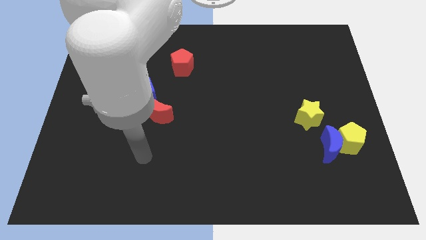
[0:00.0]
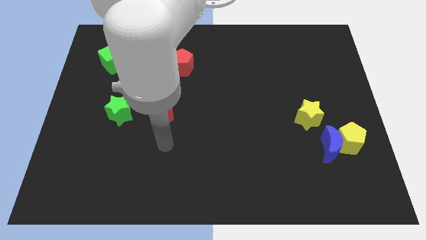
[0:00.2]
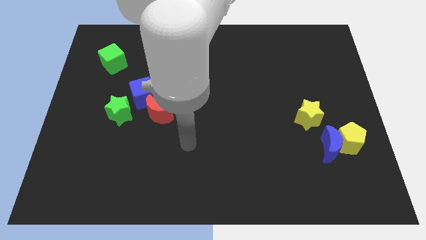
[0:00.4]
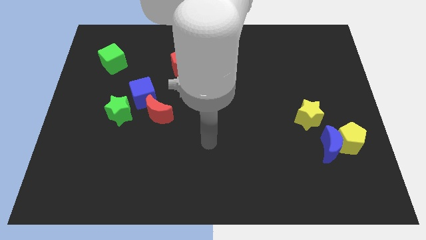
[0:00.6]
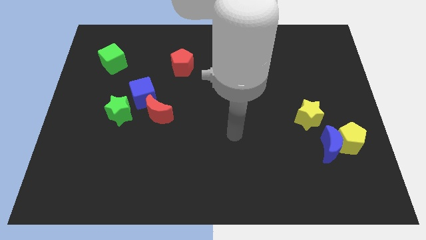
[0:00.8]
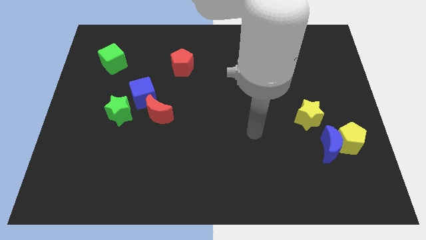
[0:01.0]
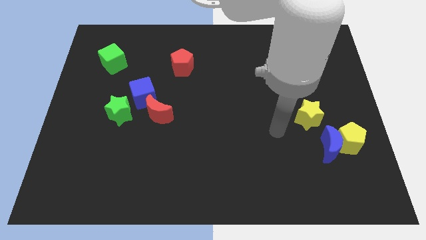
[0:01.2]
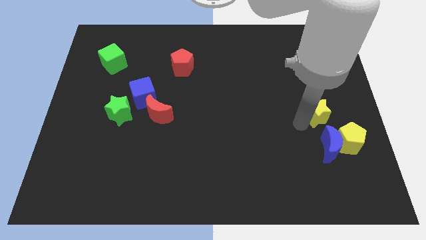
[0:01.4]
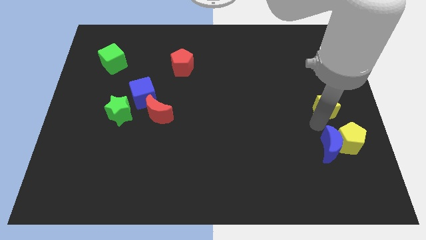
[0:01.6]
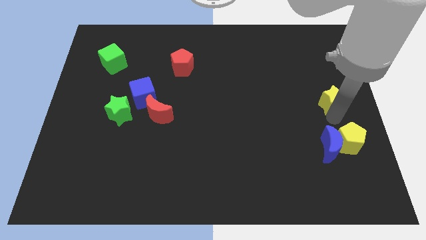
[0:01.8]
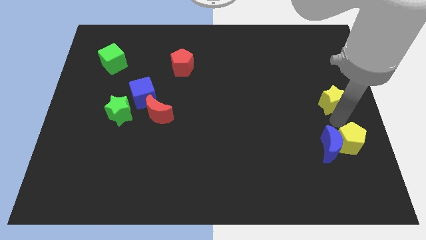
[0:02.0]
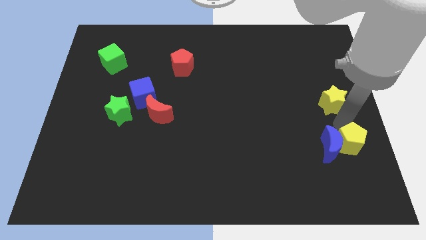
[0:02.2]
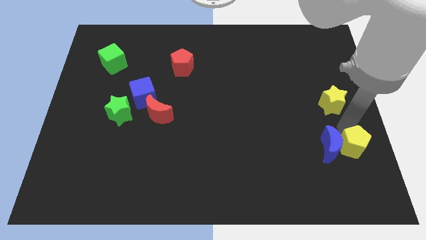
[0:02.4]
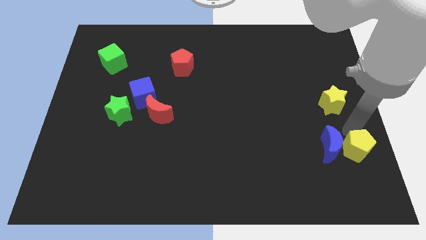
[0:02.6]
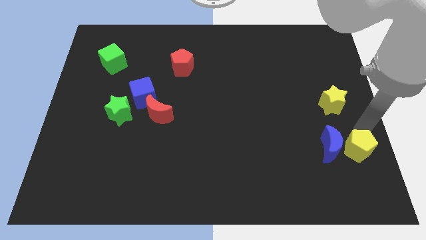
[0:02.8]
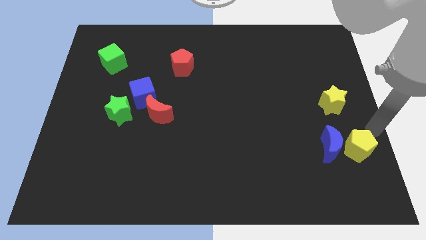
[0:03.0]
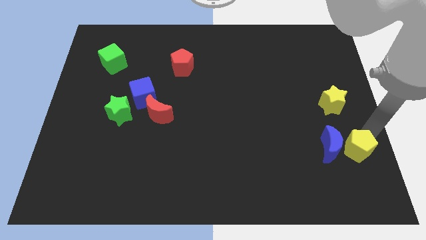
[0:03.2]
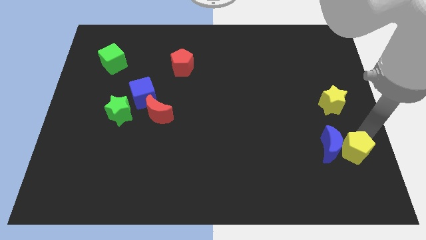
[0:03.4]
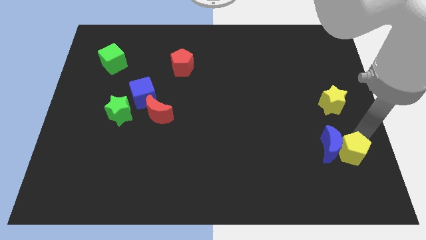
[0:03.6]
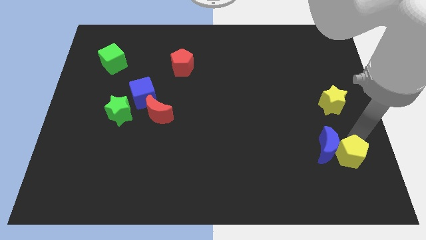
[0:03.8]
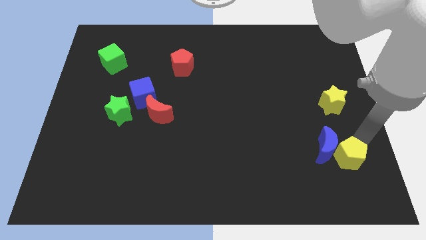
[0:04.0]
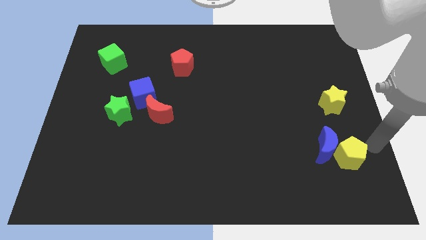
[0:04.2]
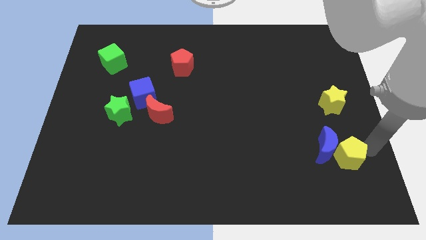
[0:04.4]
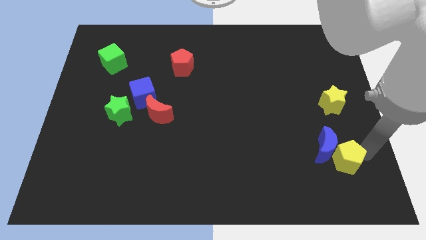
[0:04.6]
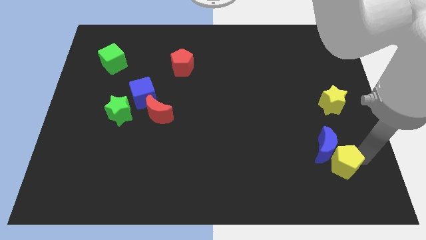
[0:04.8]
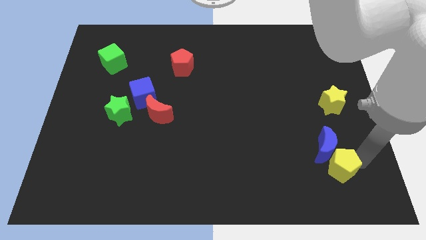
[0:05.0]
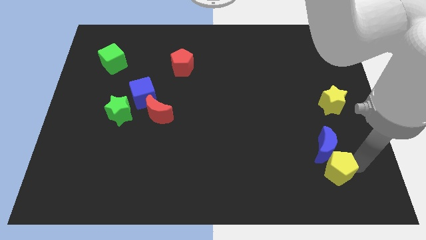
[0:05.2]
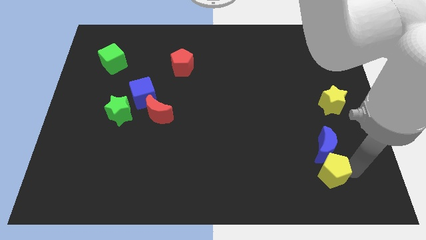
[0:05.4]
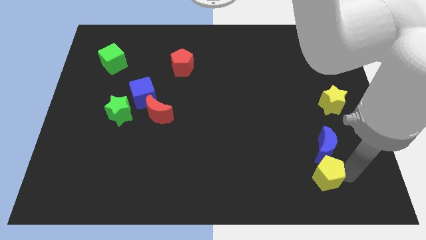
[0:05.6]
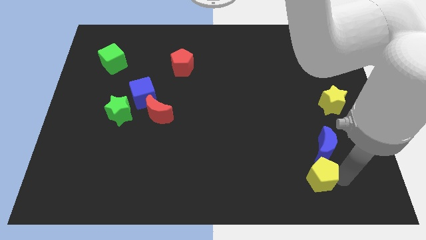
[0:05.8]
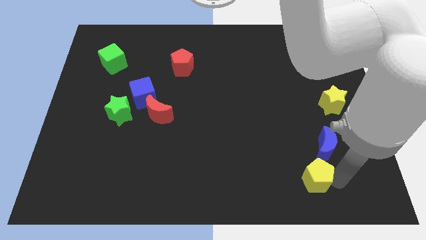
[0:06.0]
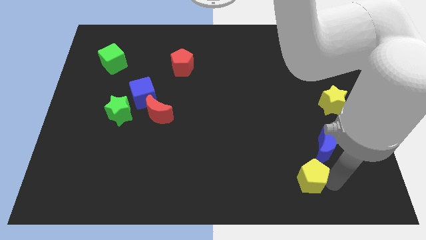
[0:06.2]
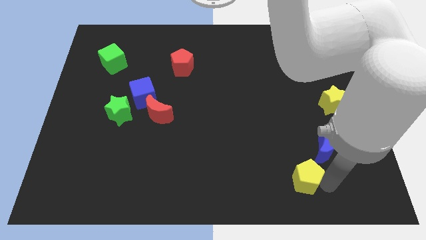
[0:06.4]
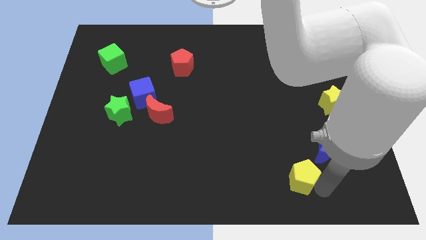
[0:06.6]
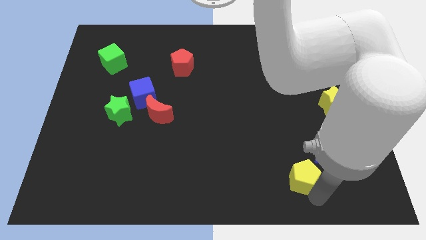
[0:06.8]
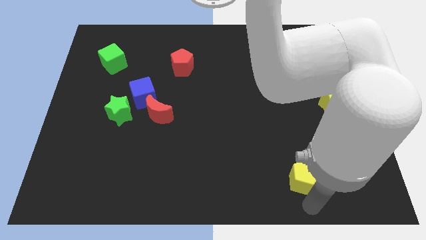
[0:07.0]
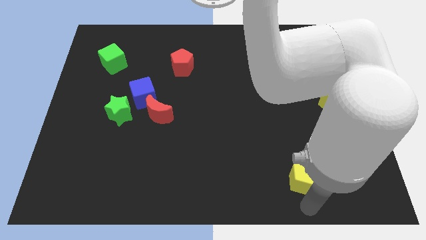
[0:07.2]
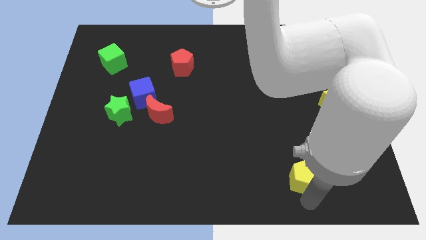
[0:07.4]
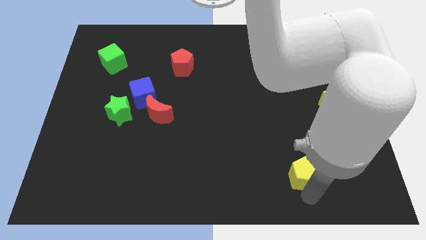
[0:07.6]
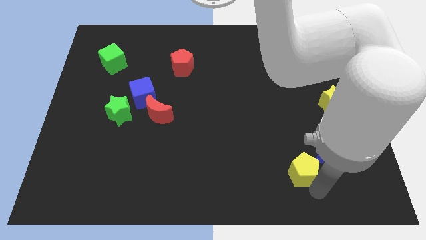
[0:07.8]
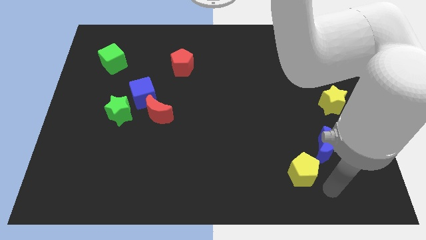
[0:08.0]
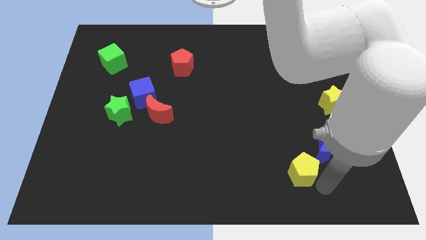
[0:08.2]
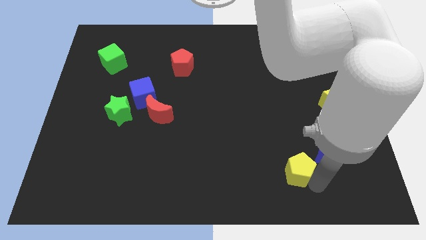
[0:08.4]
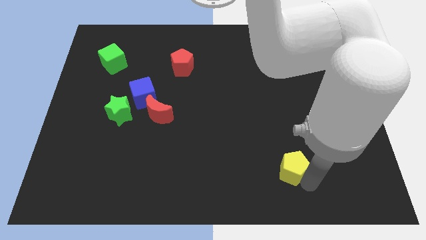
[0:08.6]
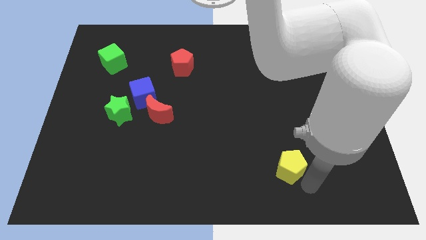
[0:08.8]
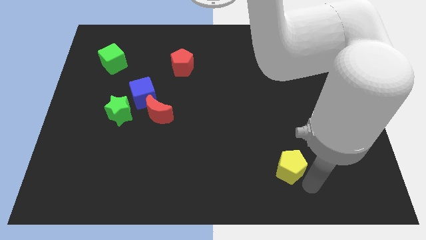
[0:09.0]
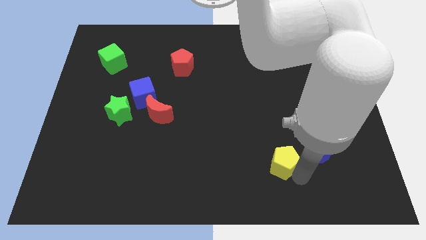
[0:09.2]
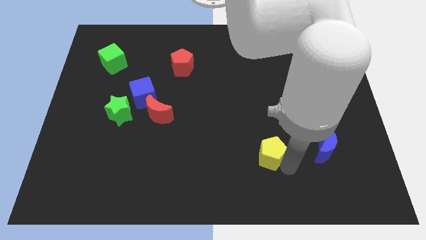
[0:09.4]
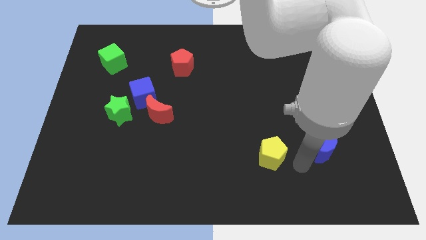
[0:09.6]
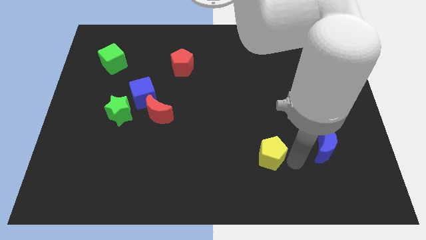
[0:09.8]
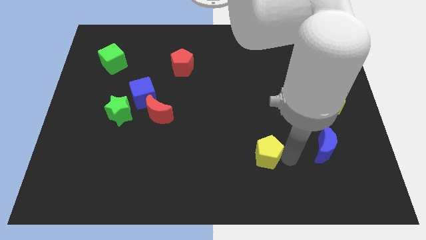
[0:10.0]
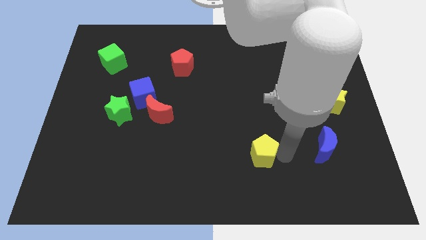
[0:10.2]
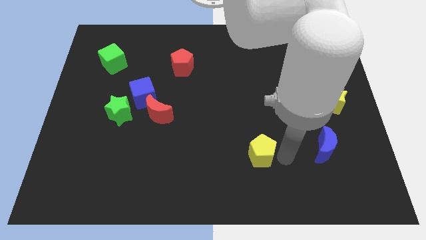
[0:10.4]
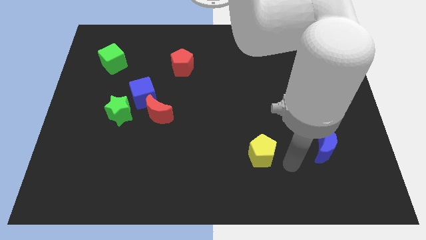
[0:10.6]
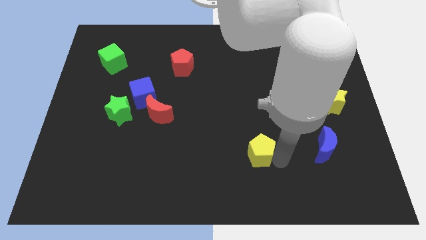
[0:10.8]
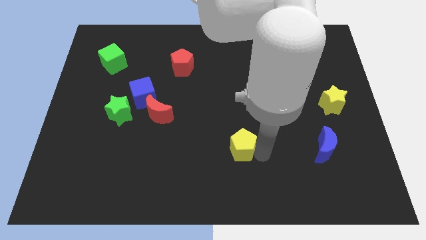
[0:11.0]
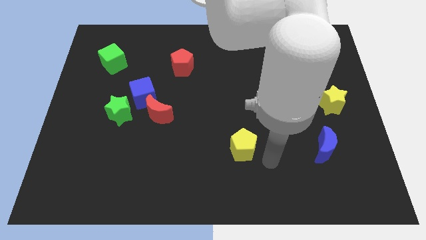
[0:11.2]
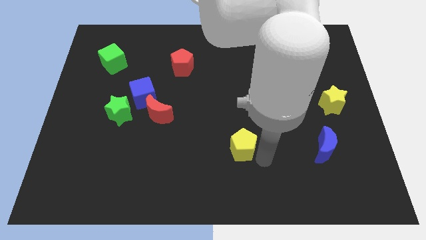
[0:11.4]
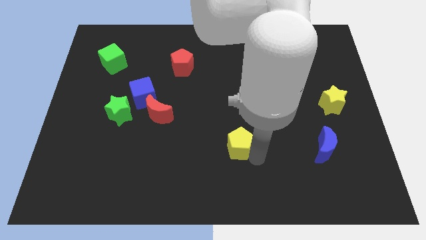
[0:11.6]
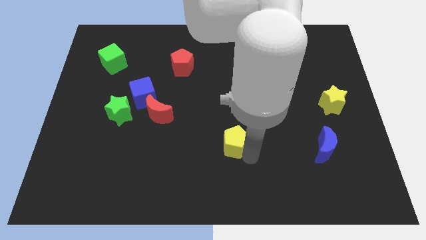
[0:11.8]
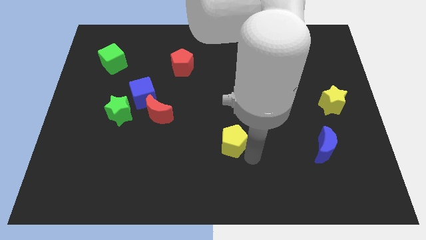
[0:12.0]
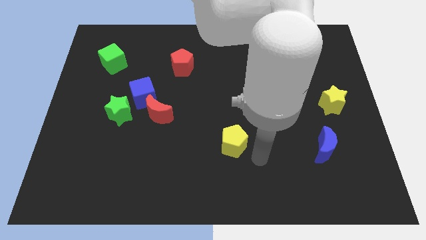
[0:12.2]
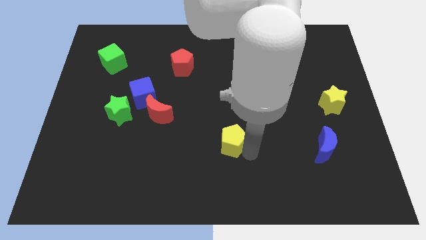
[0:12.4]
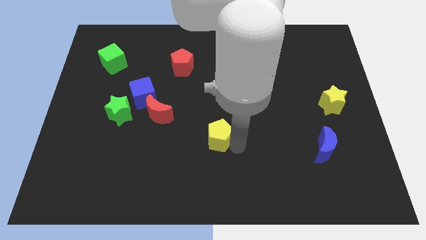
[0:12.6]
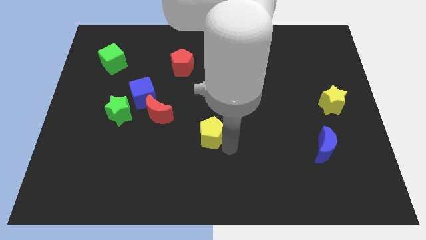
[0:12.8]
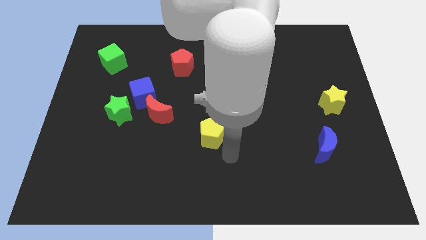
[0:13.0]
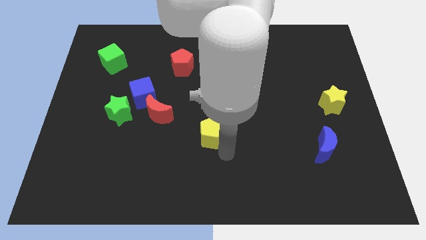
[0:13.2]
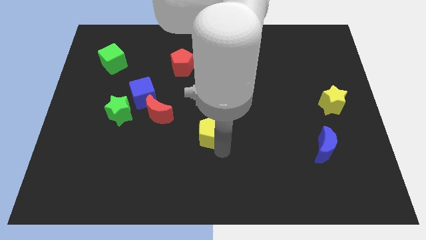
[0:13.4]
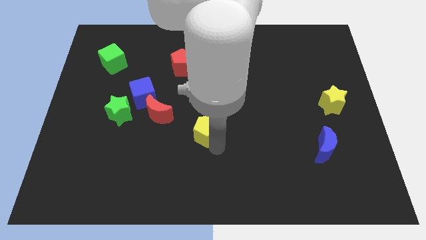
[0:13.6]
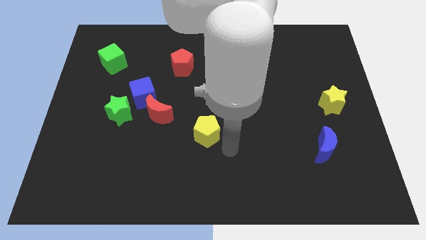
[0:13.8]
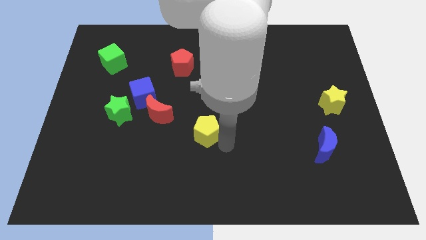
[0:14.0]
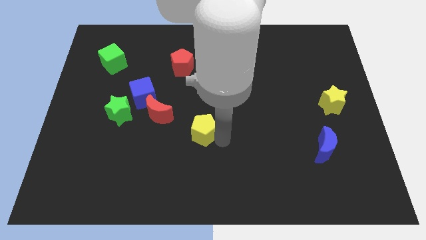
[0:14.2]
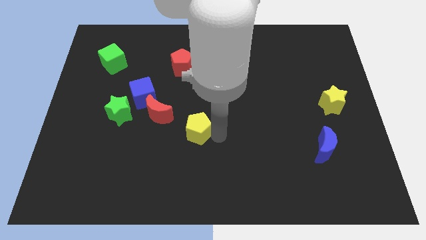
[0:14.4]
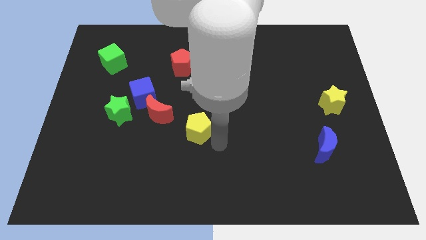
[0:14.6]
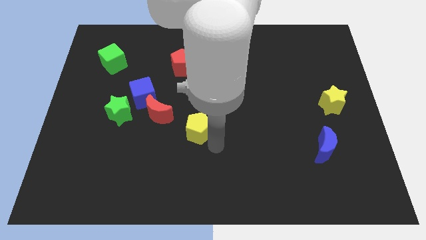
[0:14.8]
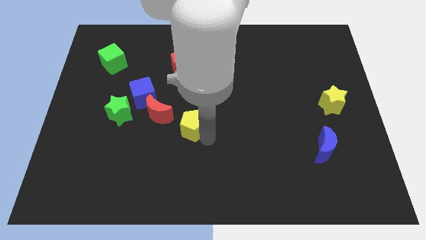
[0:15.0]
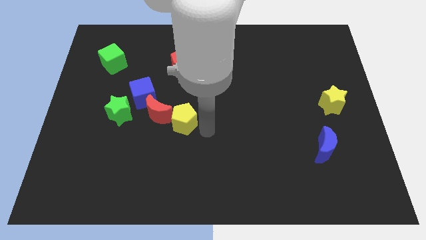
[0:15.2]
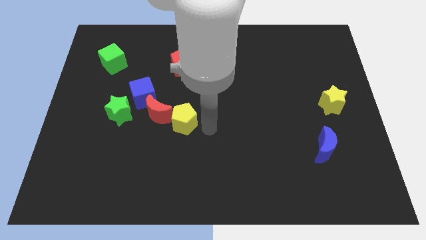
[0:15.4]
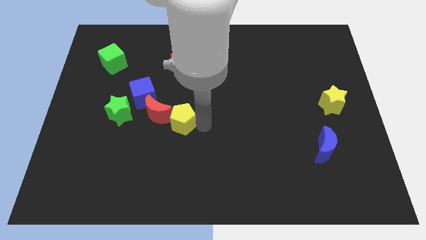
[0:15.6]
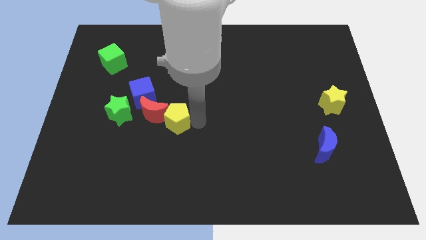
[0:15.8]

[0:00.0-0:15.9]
move the yellow pentagon next to the red moon
